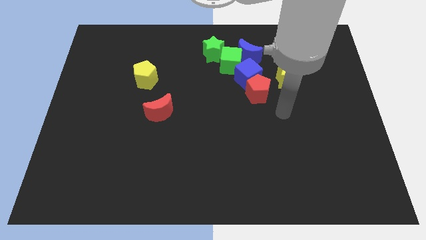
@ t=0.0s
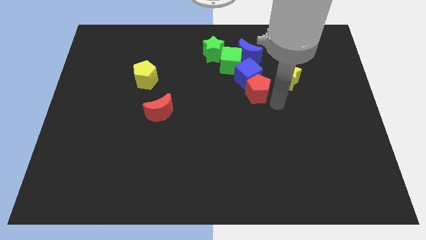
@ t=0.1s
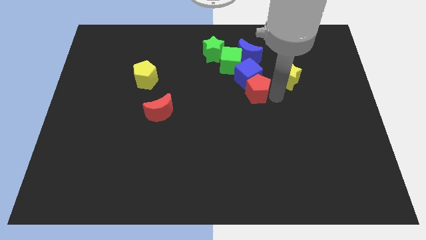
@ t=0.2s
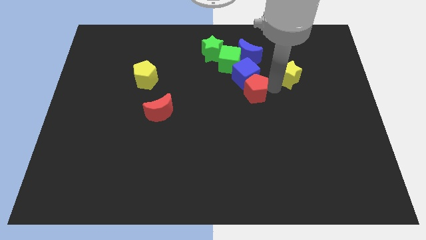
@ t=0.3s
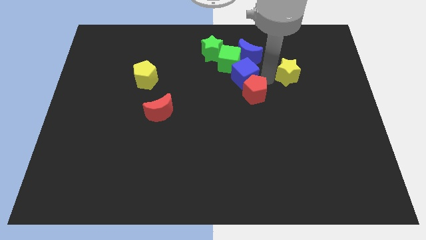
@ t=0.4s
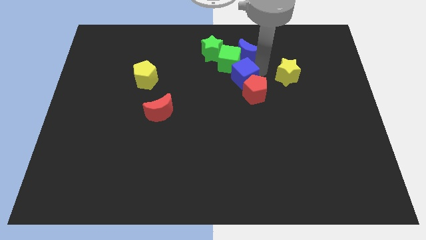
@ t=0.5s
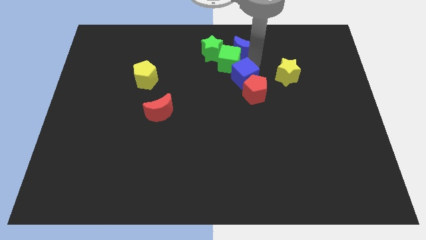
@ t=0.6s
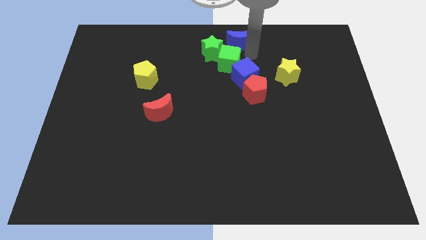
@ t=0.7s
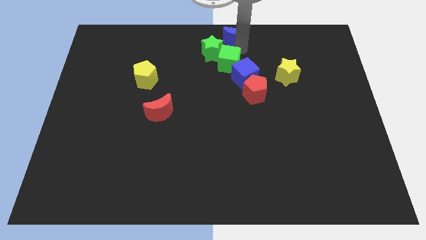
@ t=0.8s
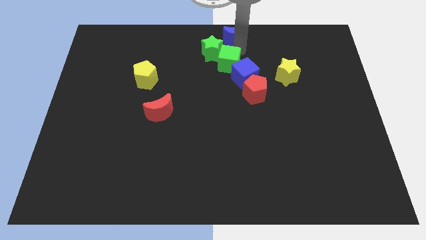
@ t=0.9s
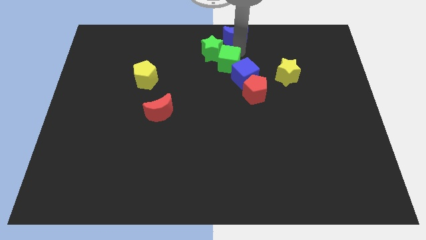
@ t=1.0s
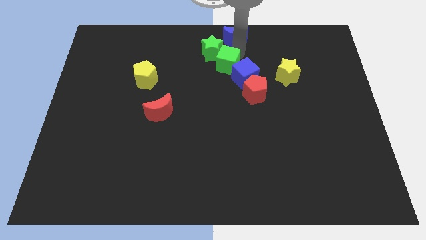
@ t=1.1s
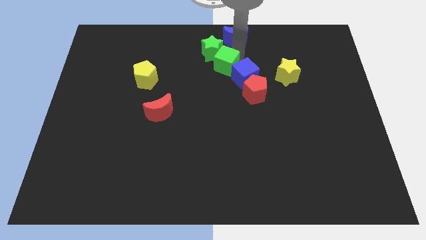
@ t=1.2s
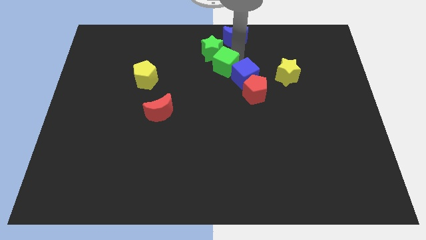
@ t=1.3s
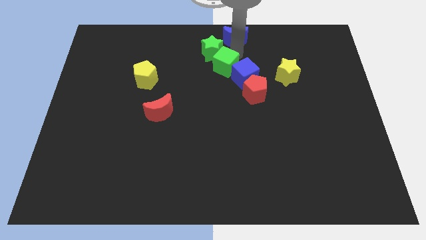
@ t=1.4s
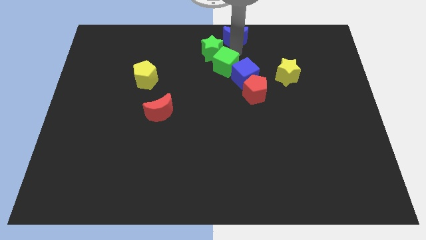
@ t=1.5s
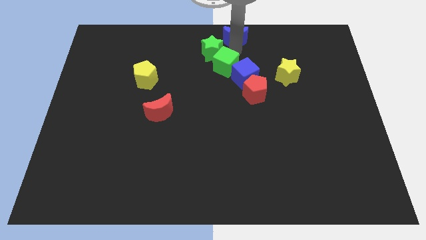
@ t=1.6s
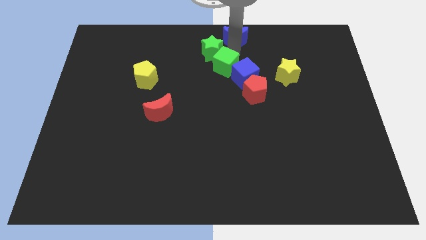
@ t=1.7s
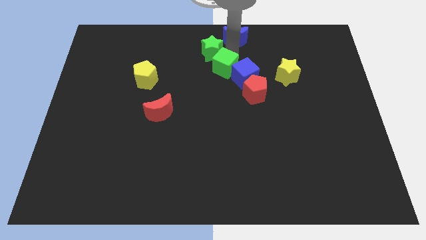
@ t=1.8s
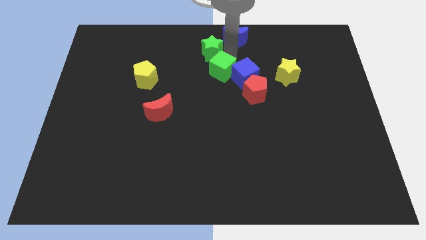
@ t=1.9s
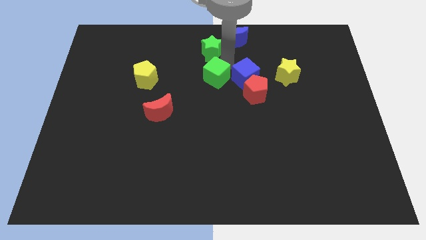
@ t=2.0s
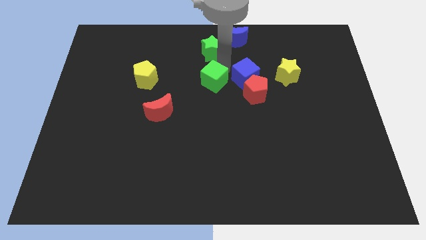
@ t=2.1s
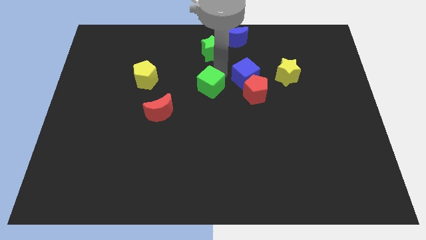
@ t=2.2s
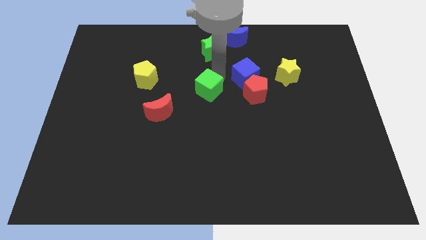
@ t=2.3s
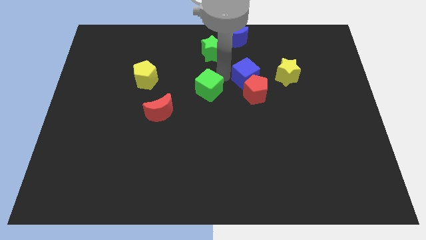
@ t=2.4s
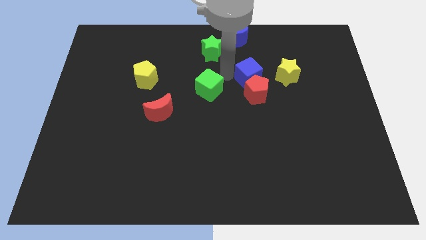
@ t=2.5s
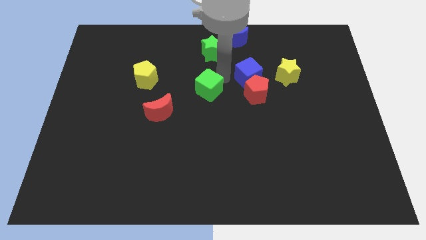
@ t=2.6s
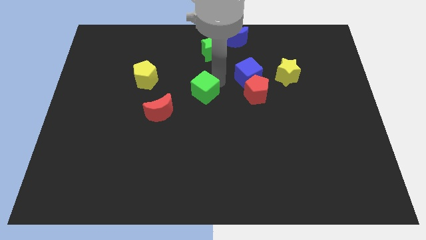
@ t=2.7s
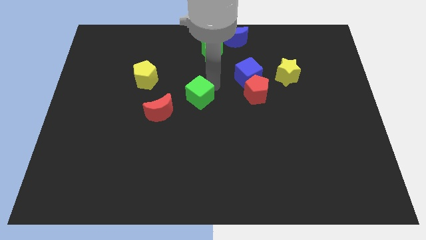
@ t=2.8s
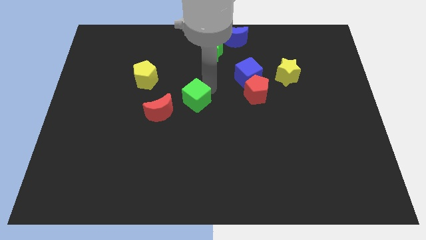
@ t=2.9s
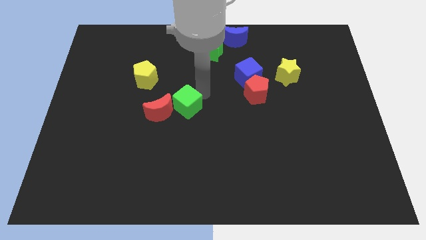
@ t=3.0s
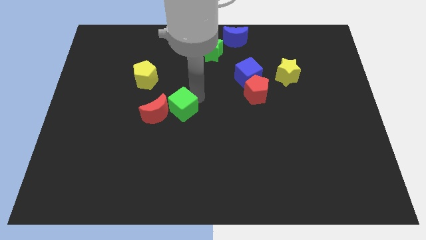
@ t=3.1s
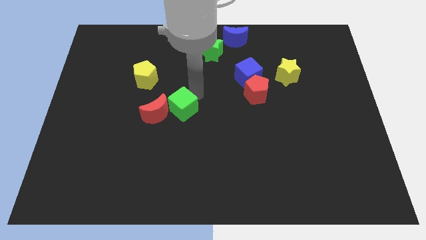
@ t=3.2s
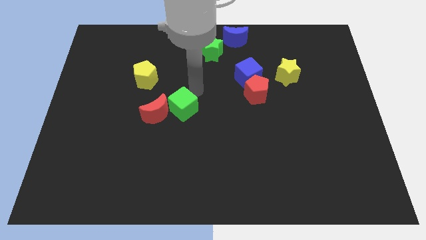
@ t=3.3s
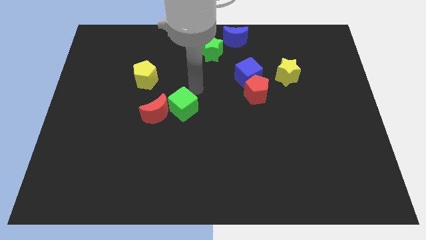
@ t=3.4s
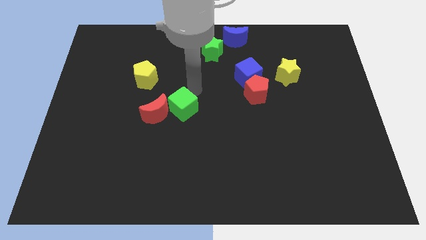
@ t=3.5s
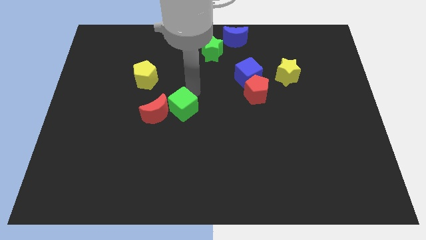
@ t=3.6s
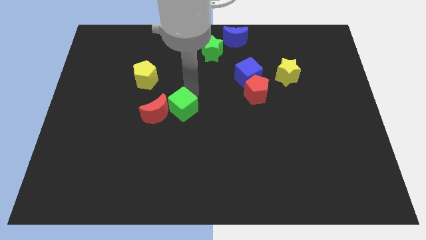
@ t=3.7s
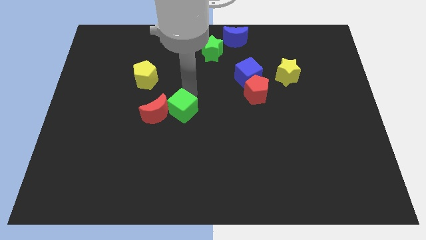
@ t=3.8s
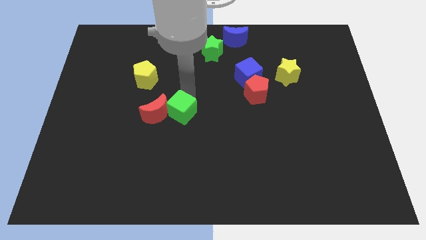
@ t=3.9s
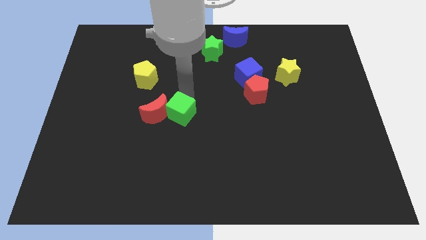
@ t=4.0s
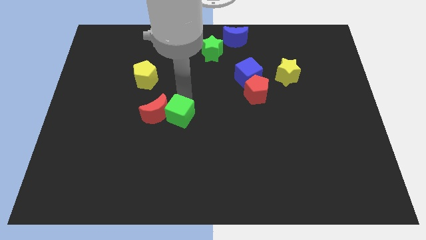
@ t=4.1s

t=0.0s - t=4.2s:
slide the green cube down and then to the left

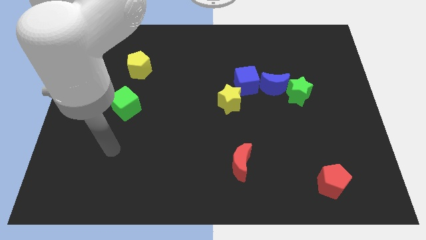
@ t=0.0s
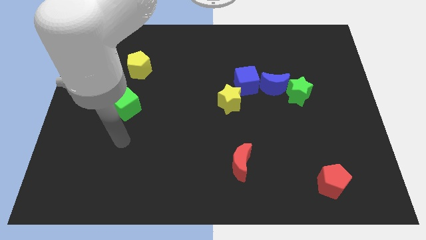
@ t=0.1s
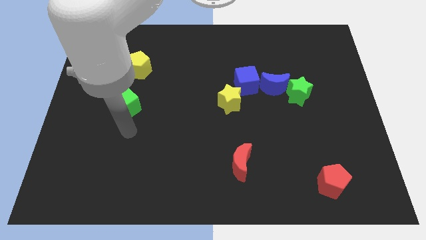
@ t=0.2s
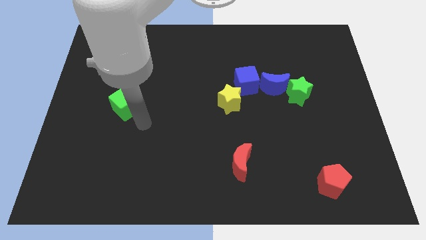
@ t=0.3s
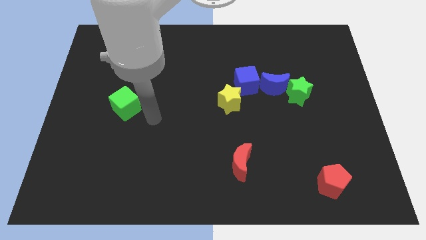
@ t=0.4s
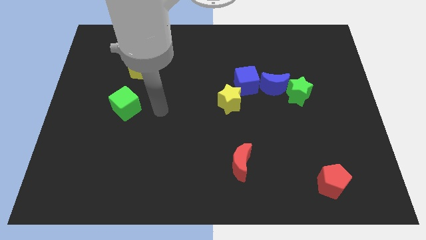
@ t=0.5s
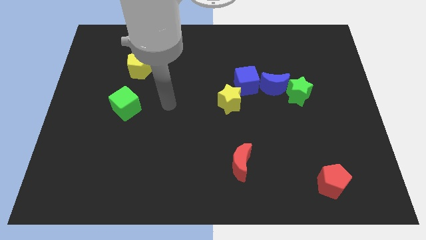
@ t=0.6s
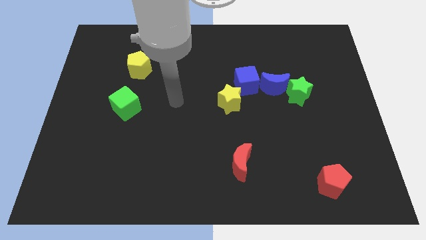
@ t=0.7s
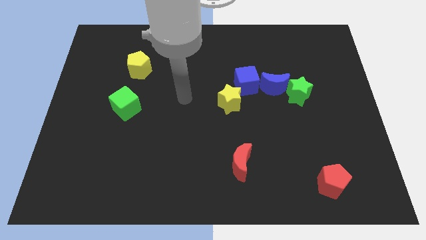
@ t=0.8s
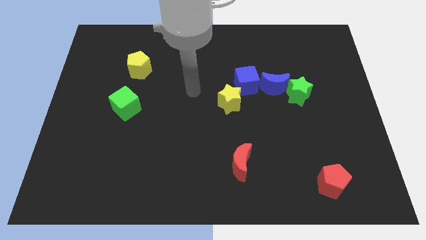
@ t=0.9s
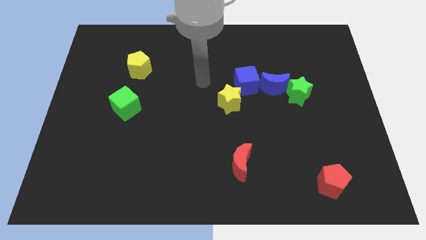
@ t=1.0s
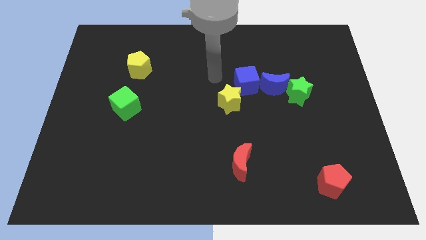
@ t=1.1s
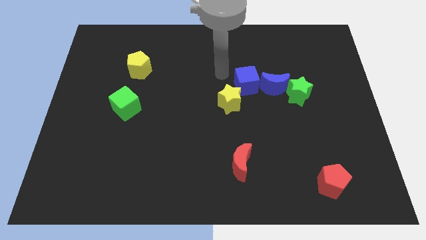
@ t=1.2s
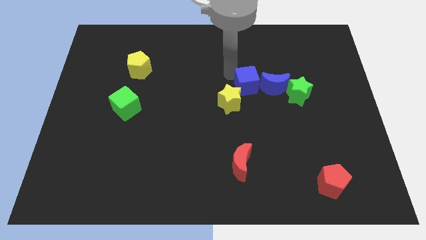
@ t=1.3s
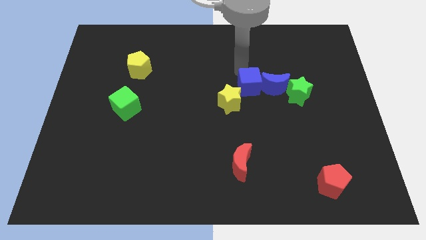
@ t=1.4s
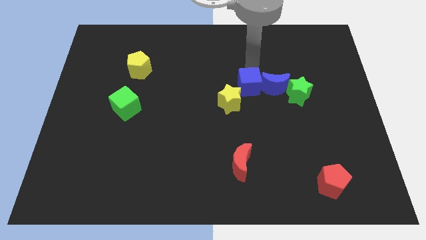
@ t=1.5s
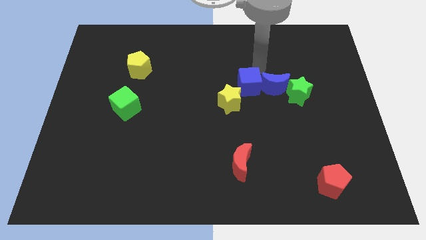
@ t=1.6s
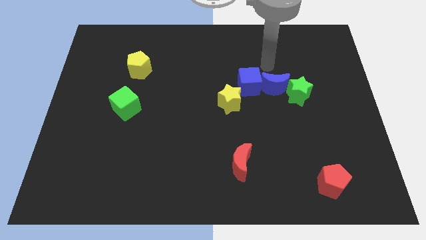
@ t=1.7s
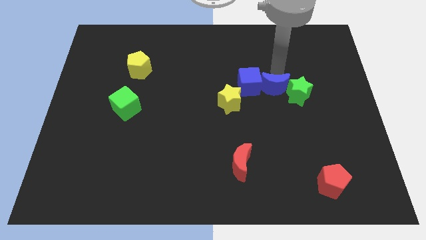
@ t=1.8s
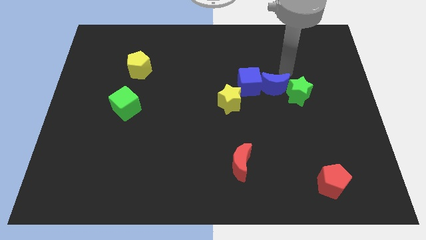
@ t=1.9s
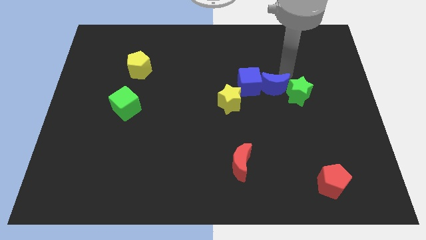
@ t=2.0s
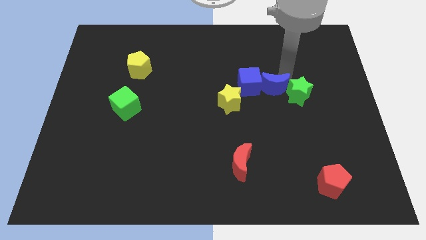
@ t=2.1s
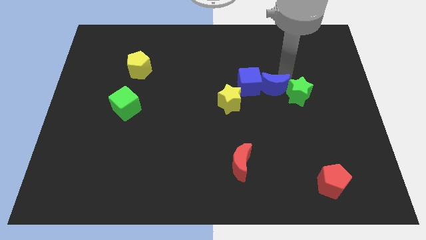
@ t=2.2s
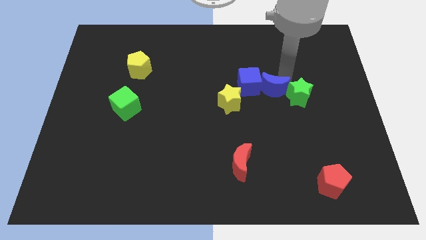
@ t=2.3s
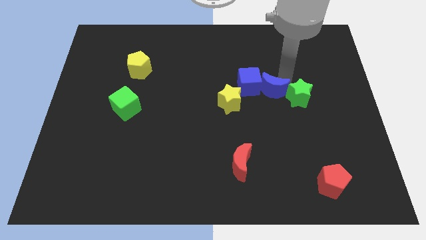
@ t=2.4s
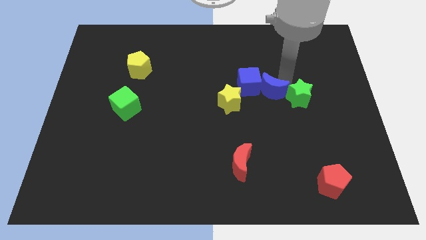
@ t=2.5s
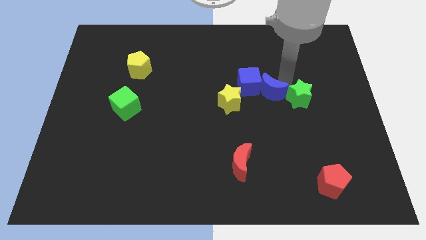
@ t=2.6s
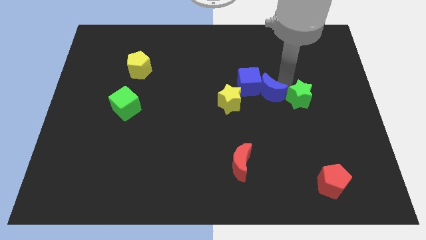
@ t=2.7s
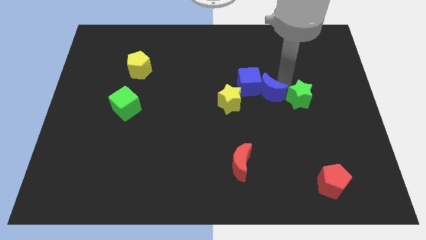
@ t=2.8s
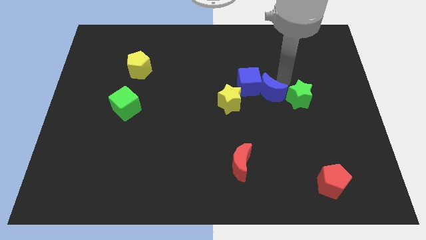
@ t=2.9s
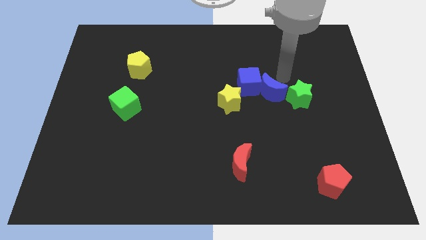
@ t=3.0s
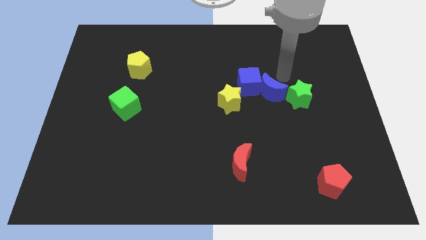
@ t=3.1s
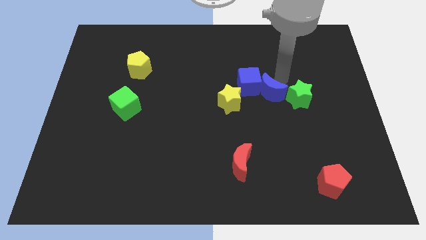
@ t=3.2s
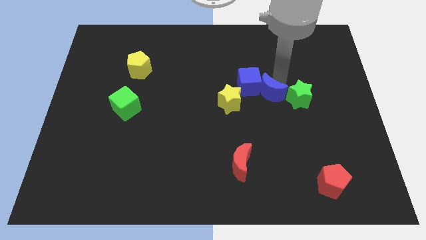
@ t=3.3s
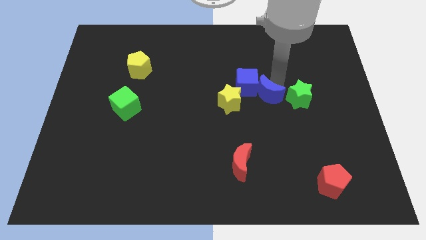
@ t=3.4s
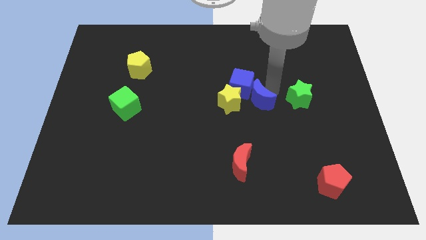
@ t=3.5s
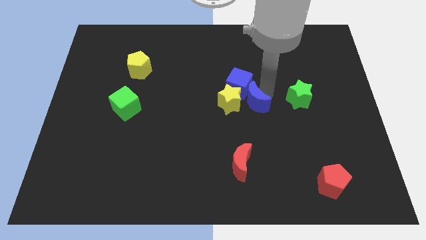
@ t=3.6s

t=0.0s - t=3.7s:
slightly move the blue moon down and left
